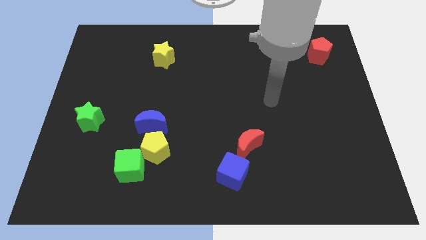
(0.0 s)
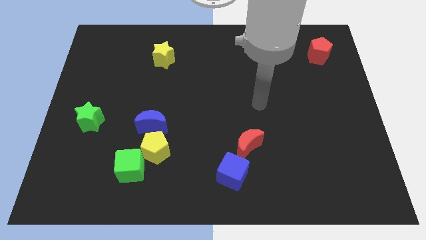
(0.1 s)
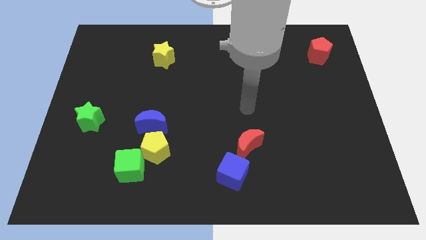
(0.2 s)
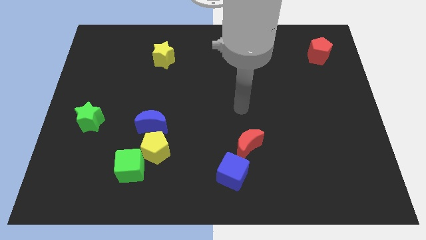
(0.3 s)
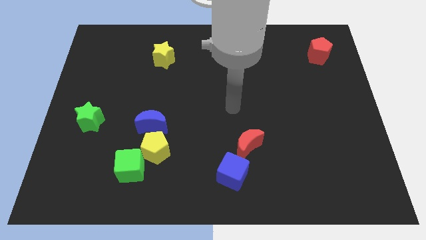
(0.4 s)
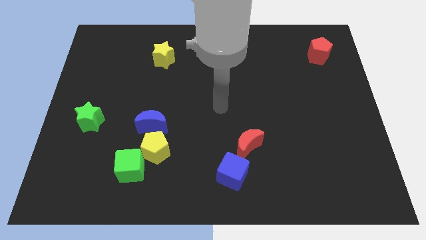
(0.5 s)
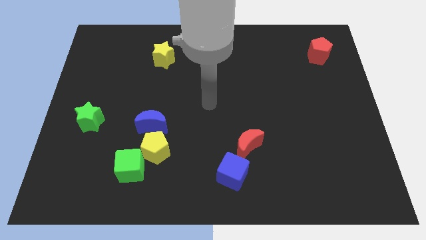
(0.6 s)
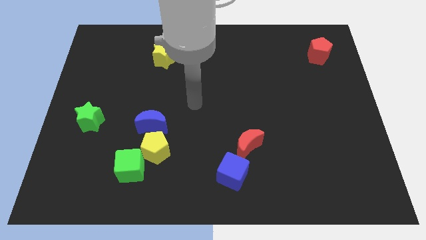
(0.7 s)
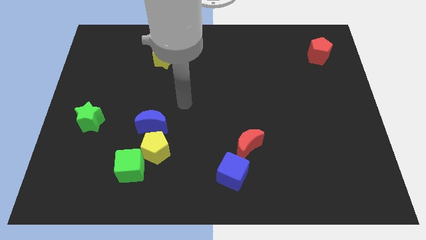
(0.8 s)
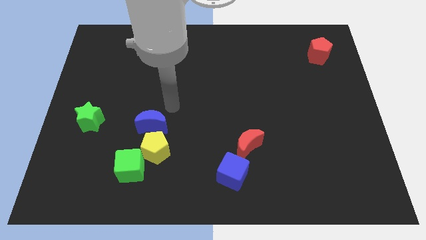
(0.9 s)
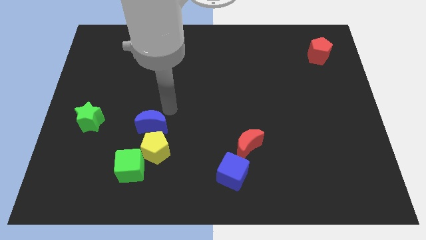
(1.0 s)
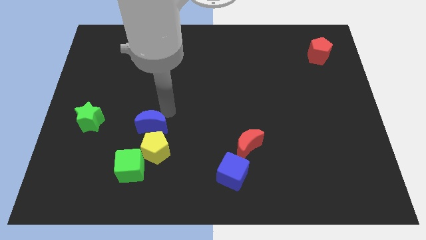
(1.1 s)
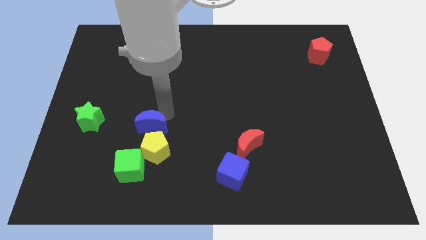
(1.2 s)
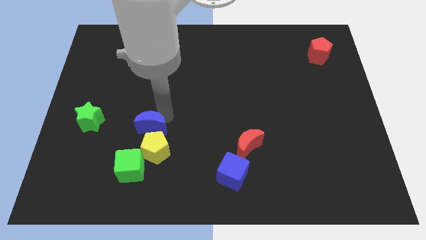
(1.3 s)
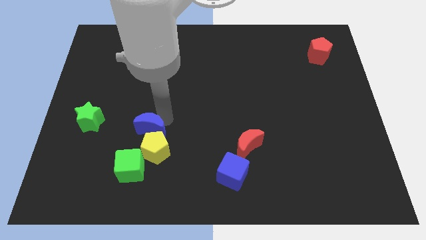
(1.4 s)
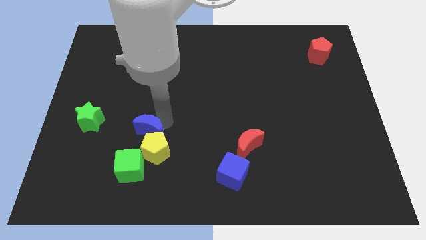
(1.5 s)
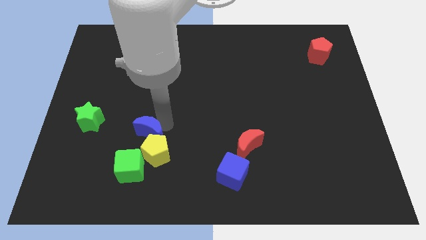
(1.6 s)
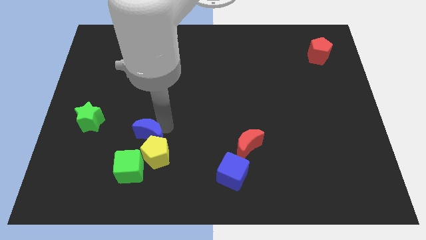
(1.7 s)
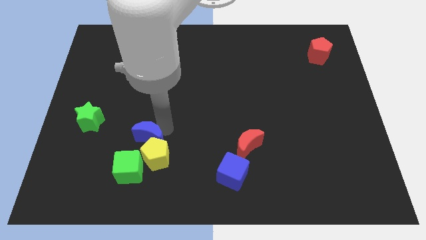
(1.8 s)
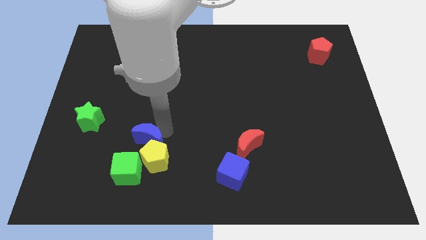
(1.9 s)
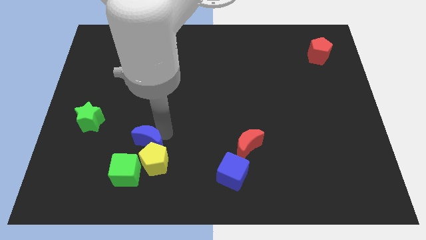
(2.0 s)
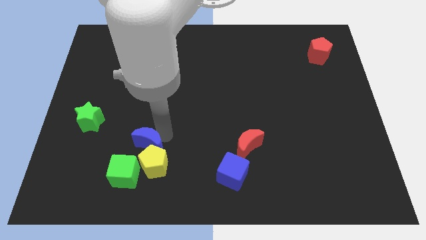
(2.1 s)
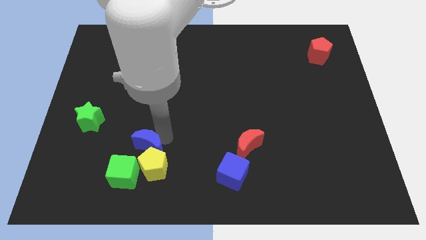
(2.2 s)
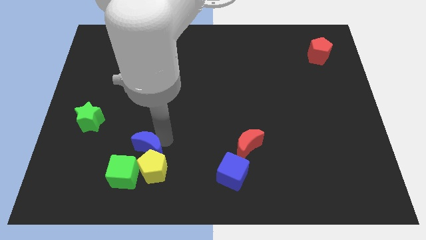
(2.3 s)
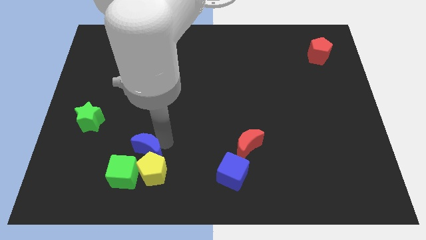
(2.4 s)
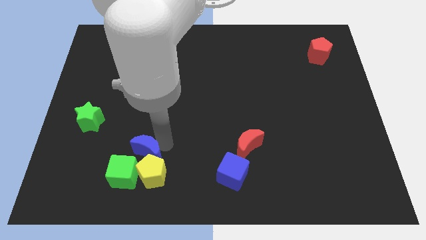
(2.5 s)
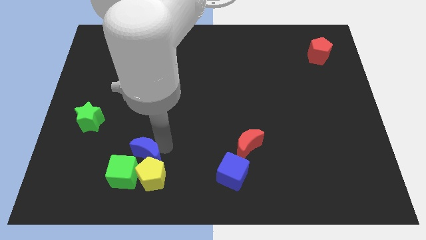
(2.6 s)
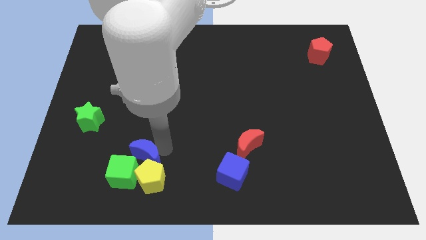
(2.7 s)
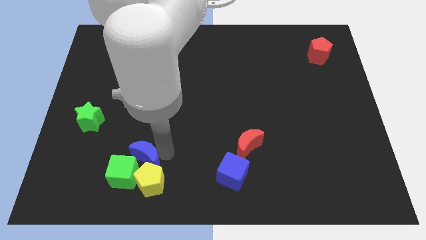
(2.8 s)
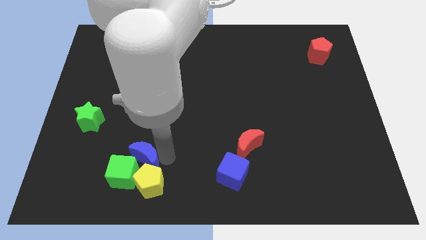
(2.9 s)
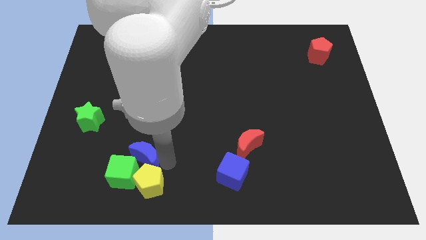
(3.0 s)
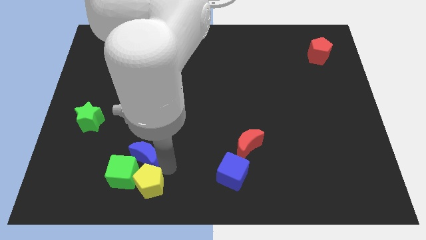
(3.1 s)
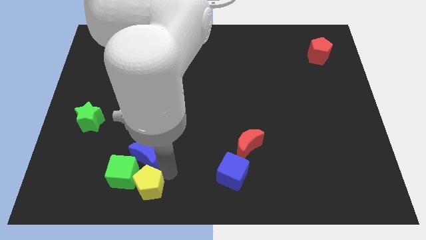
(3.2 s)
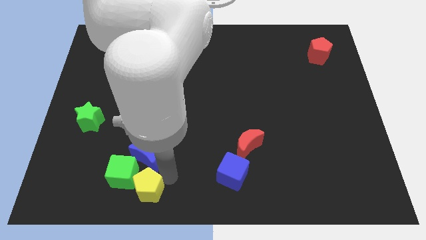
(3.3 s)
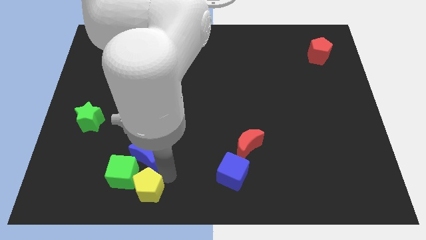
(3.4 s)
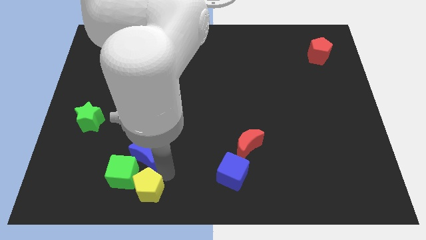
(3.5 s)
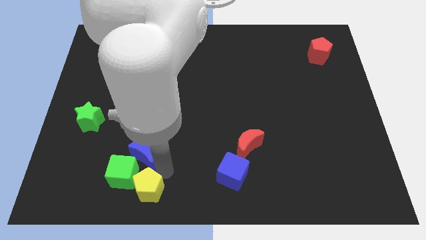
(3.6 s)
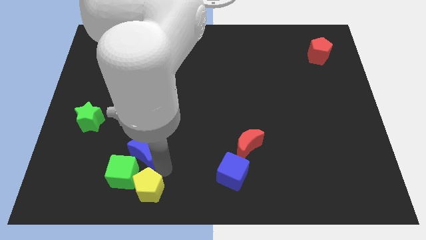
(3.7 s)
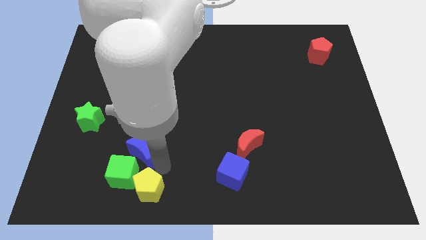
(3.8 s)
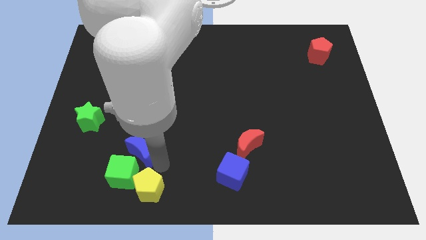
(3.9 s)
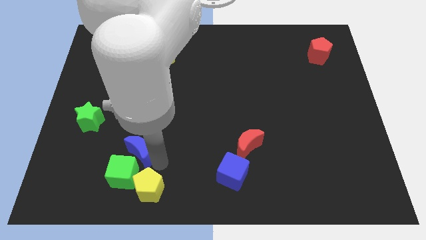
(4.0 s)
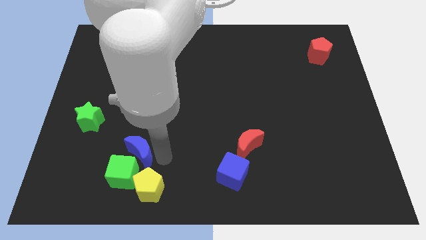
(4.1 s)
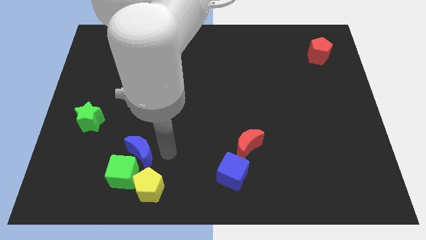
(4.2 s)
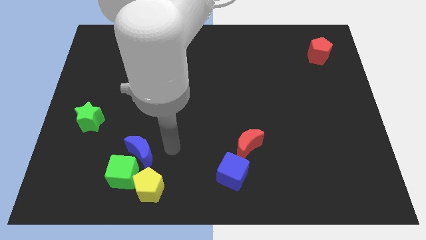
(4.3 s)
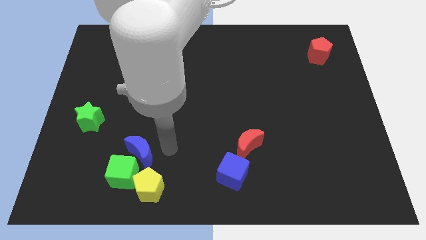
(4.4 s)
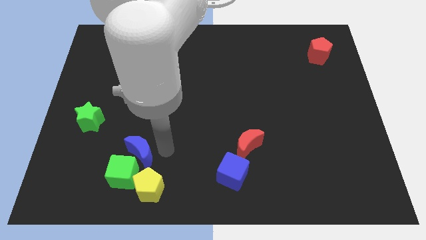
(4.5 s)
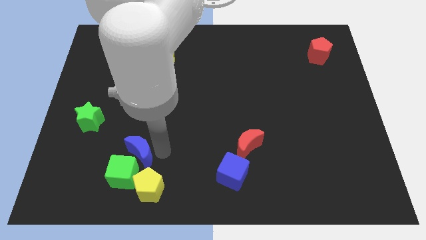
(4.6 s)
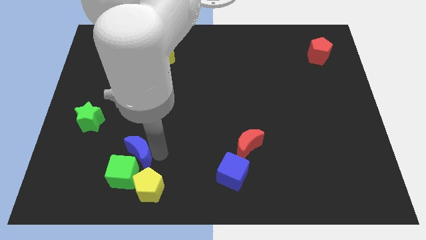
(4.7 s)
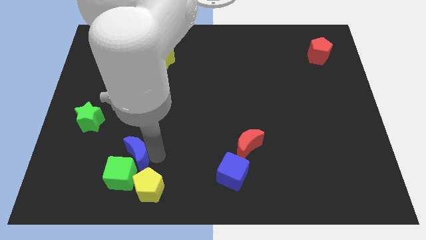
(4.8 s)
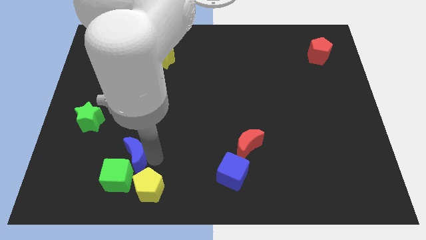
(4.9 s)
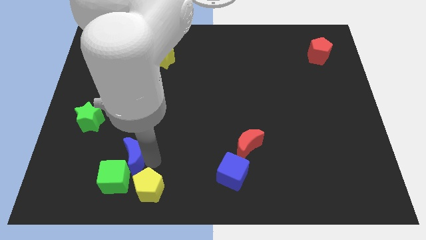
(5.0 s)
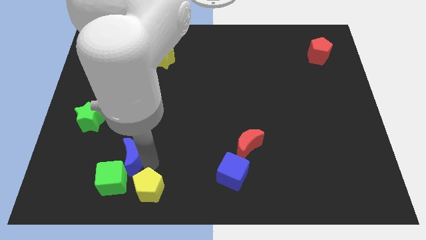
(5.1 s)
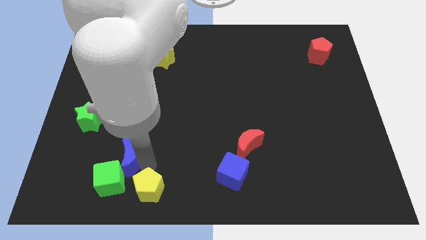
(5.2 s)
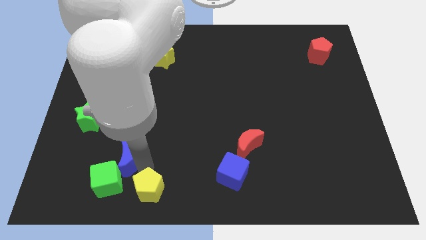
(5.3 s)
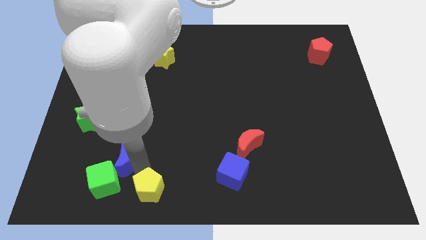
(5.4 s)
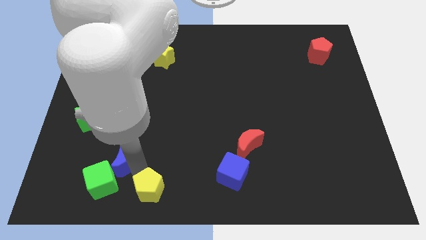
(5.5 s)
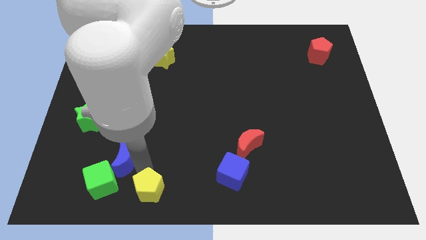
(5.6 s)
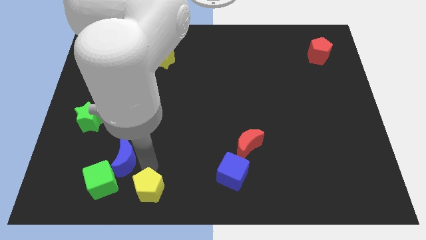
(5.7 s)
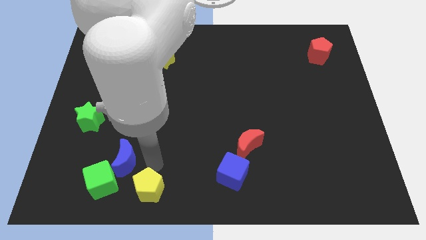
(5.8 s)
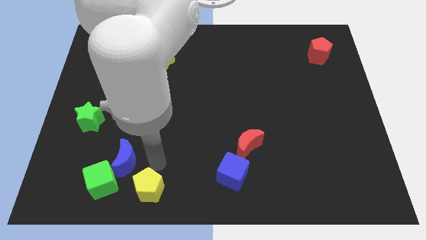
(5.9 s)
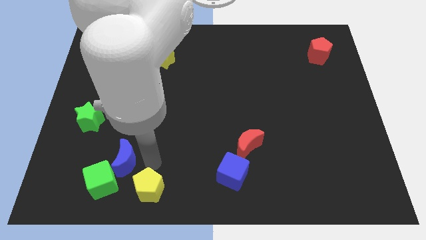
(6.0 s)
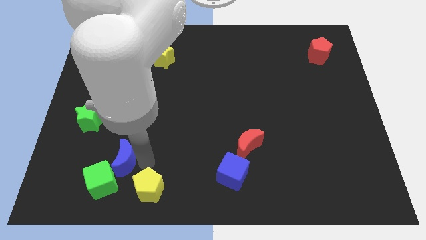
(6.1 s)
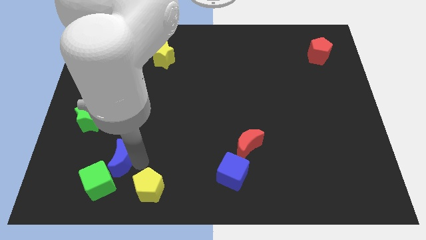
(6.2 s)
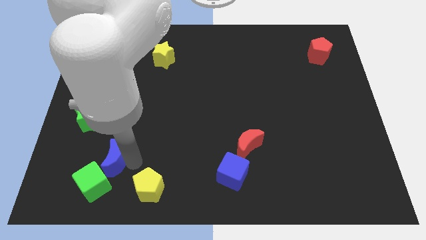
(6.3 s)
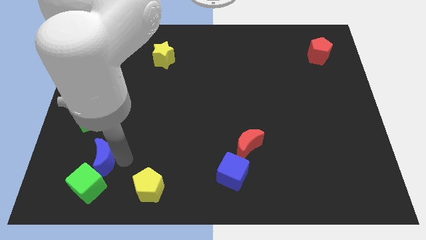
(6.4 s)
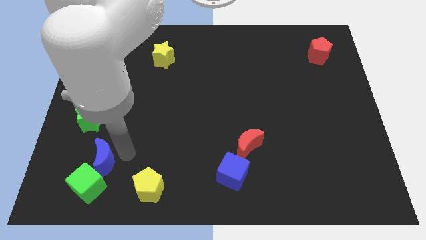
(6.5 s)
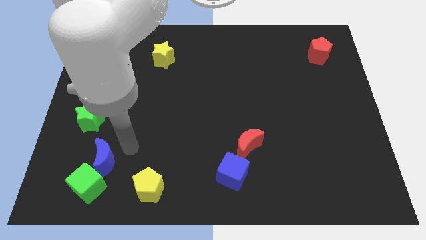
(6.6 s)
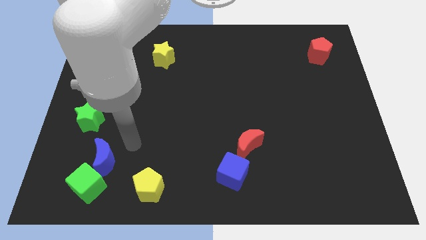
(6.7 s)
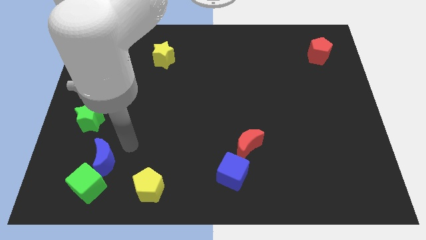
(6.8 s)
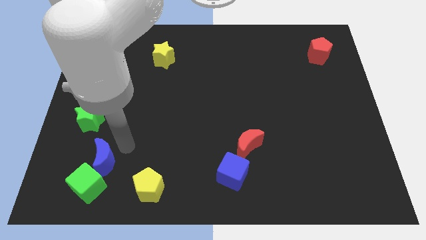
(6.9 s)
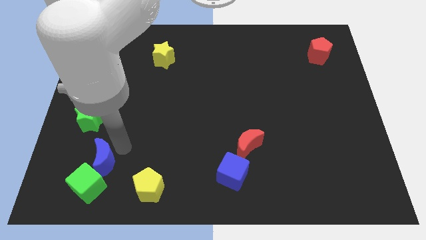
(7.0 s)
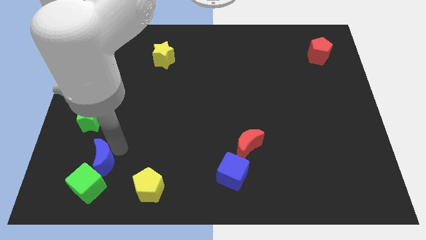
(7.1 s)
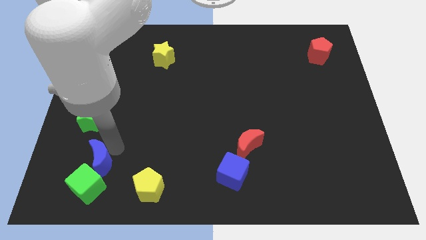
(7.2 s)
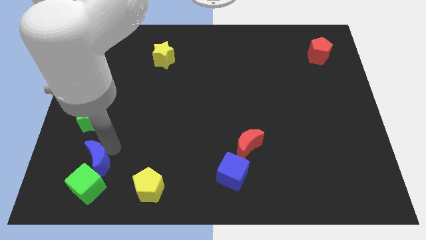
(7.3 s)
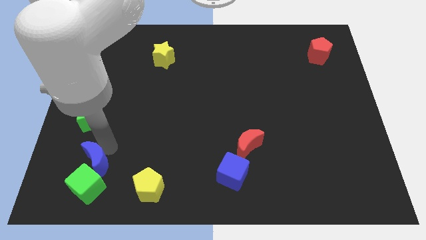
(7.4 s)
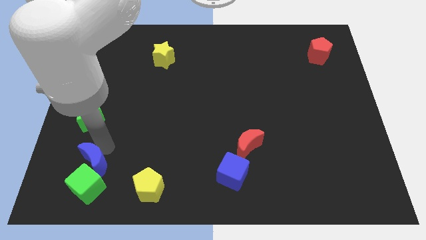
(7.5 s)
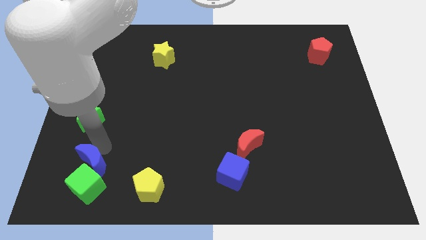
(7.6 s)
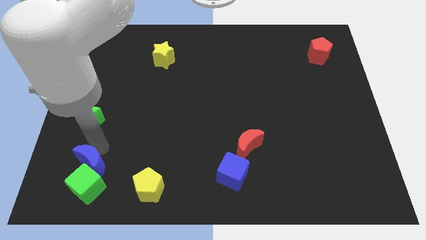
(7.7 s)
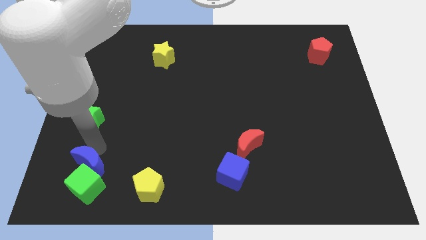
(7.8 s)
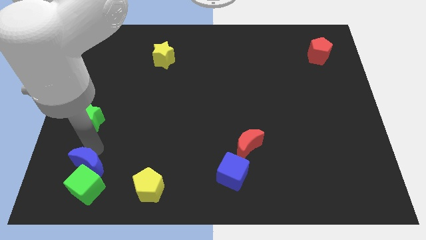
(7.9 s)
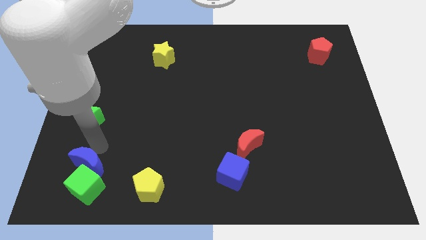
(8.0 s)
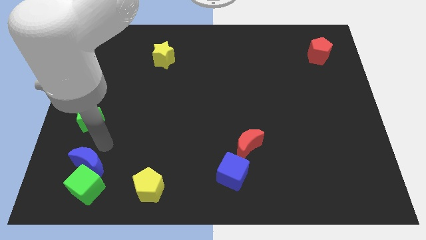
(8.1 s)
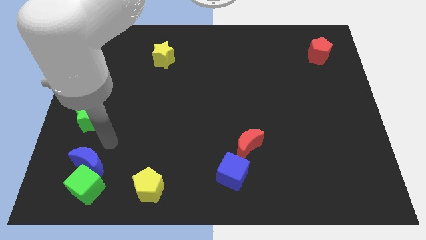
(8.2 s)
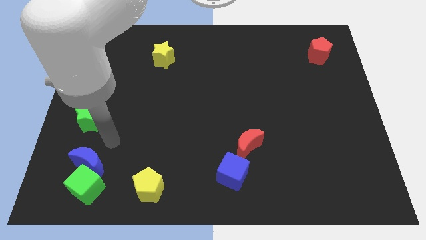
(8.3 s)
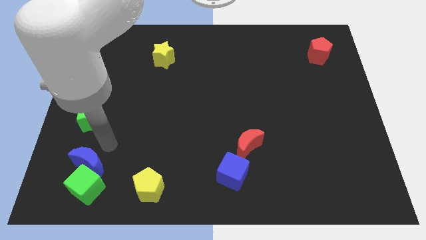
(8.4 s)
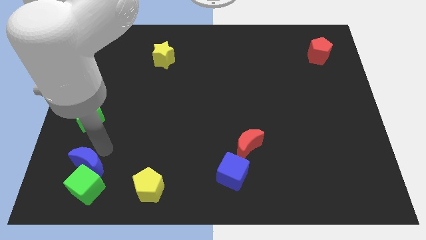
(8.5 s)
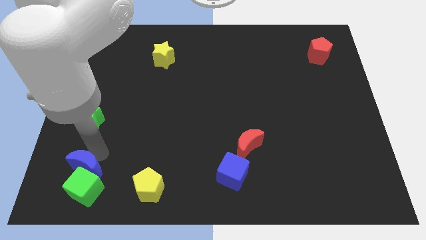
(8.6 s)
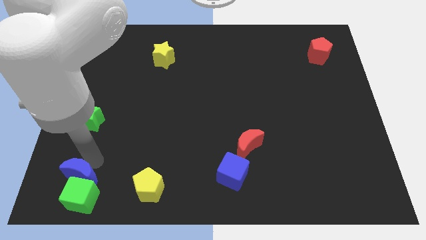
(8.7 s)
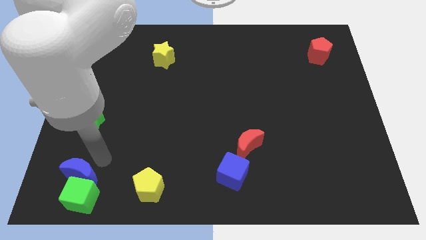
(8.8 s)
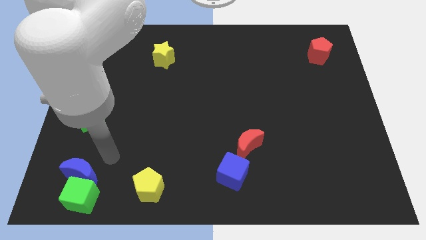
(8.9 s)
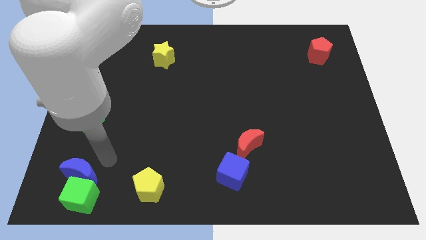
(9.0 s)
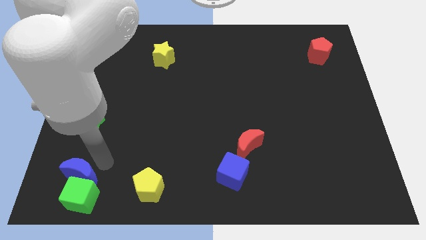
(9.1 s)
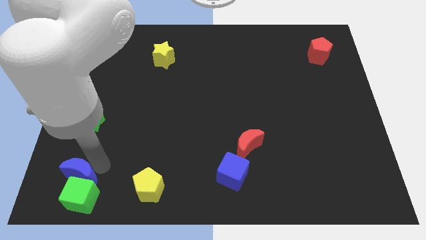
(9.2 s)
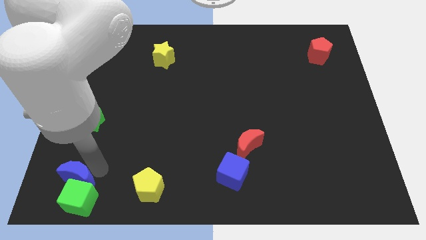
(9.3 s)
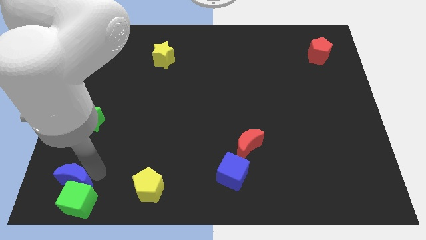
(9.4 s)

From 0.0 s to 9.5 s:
push the blue moon to the bottom left
